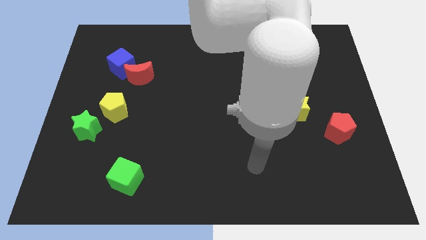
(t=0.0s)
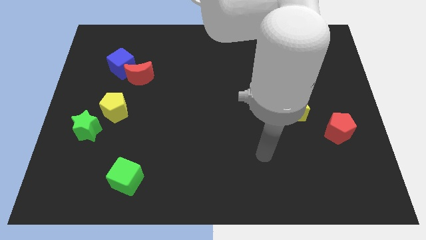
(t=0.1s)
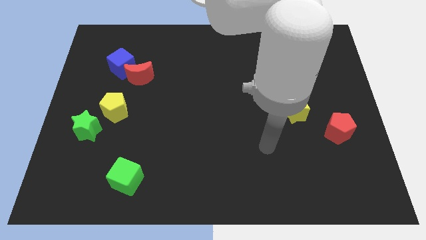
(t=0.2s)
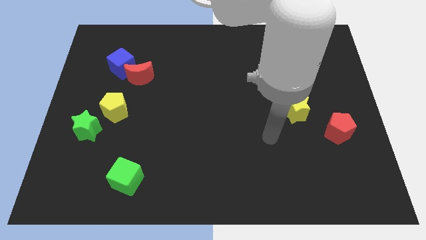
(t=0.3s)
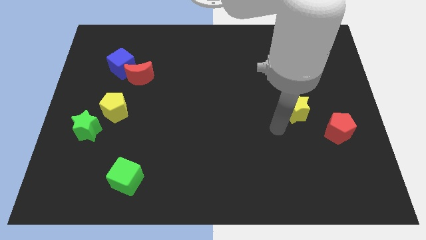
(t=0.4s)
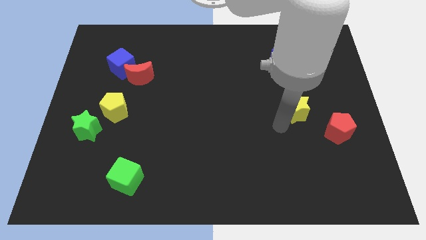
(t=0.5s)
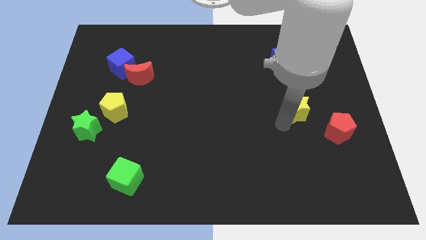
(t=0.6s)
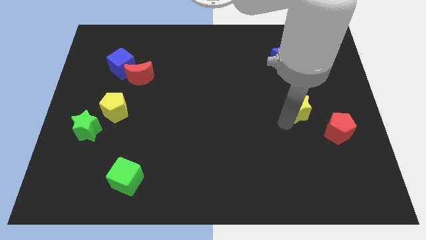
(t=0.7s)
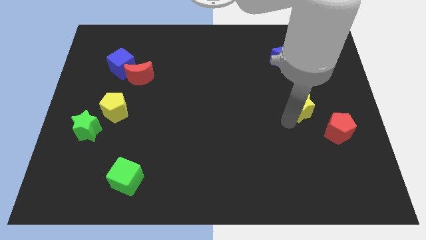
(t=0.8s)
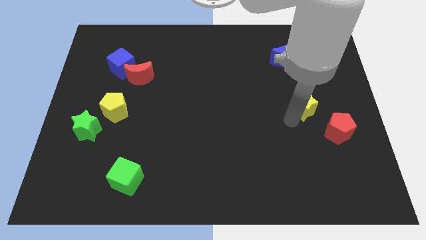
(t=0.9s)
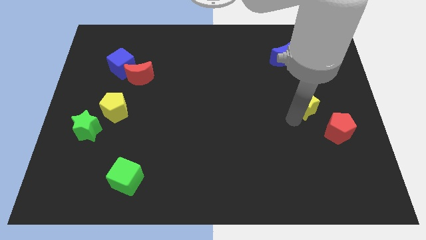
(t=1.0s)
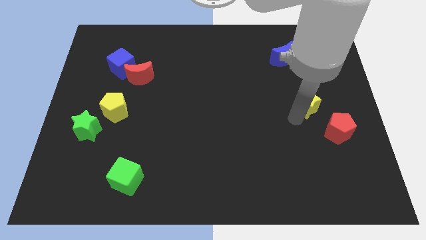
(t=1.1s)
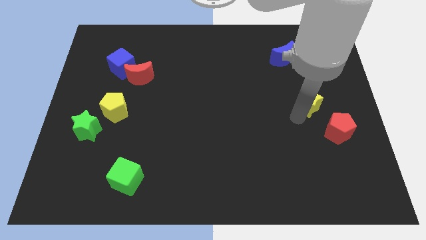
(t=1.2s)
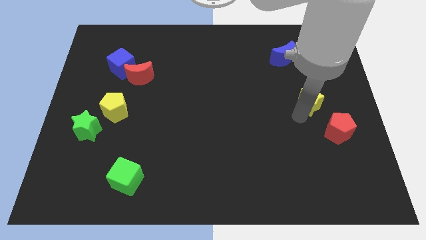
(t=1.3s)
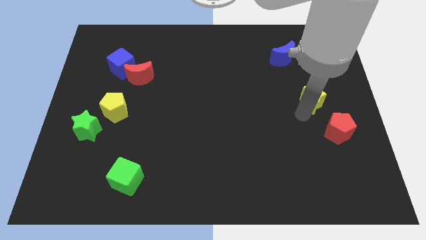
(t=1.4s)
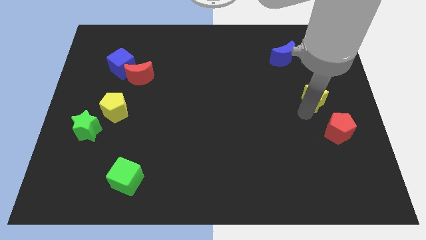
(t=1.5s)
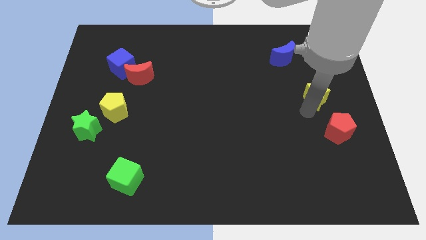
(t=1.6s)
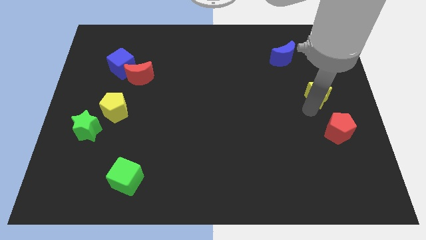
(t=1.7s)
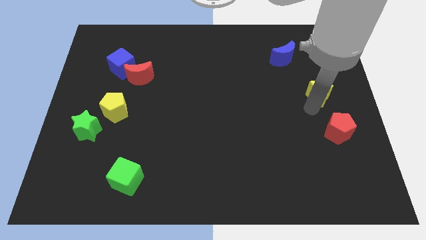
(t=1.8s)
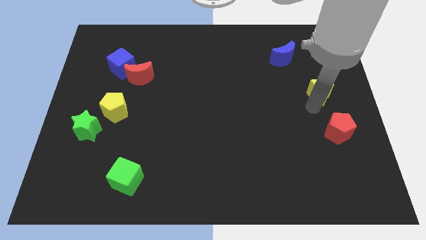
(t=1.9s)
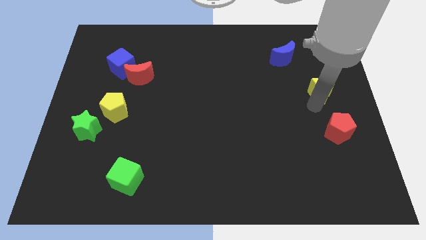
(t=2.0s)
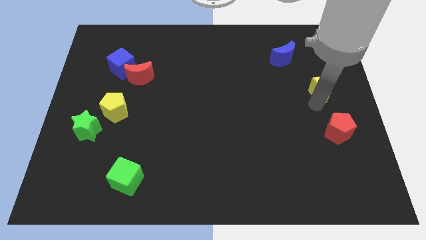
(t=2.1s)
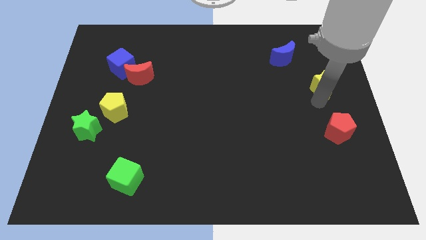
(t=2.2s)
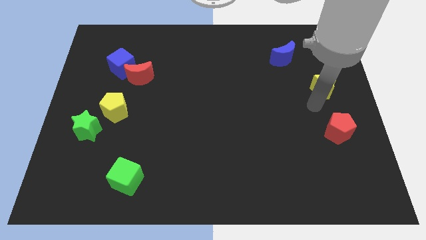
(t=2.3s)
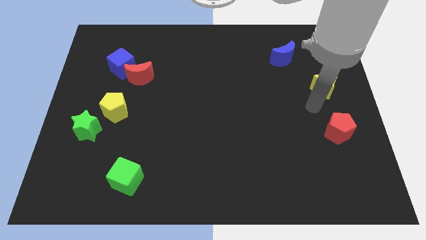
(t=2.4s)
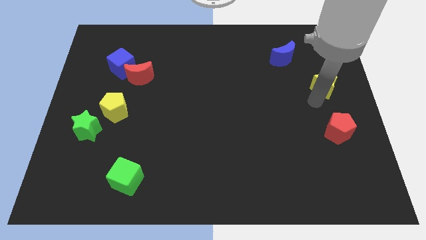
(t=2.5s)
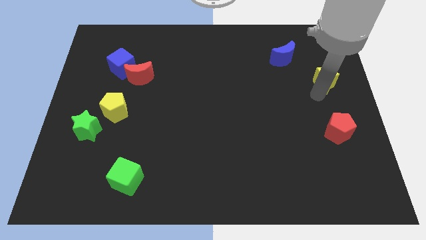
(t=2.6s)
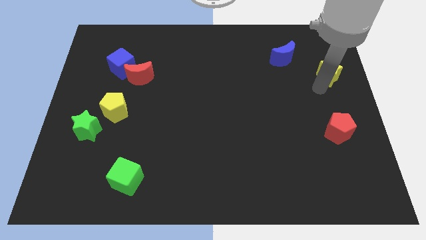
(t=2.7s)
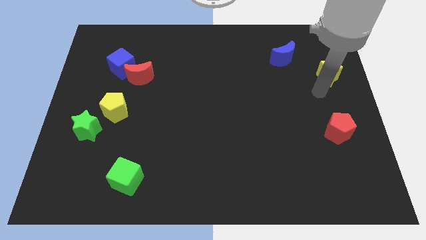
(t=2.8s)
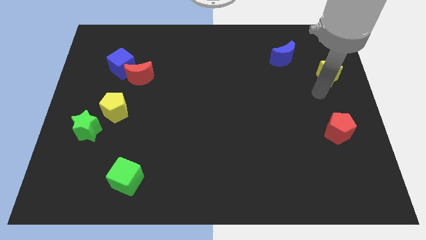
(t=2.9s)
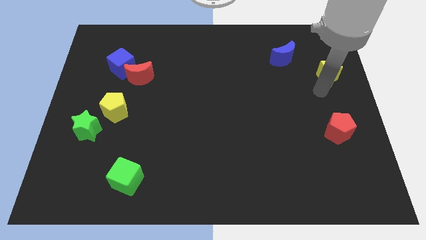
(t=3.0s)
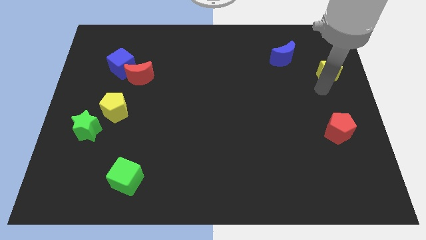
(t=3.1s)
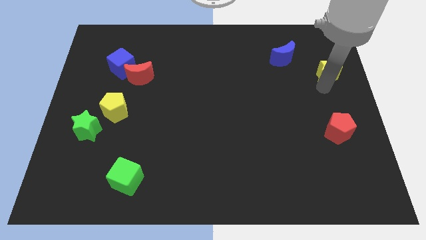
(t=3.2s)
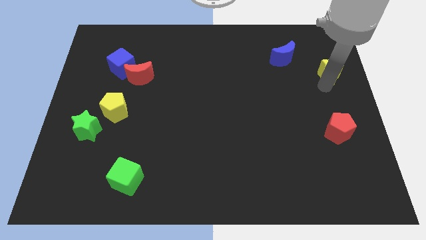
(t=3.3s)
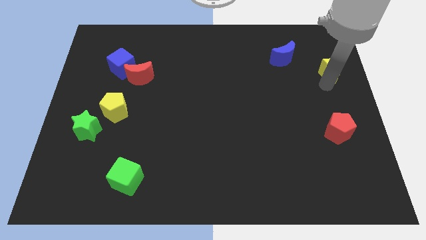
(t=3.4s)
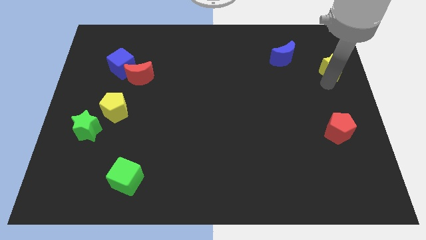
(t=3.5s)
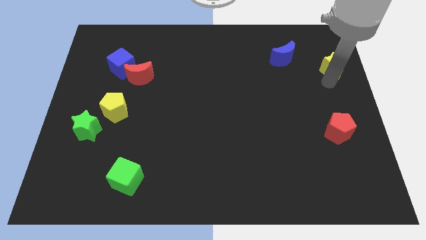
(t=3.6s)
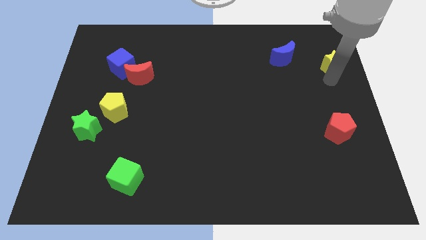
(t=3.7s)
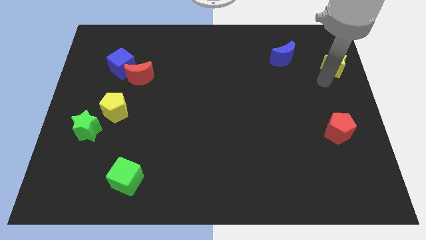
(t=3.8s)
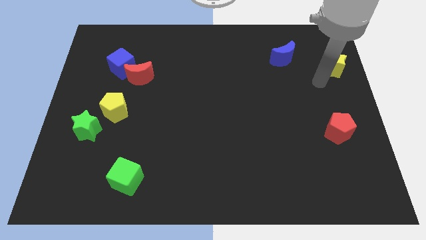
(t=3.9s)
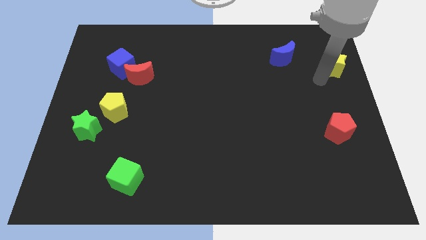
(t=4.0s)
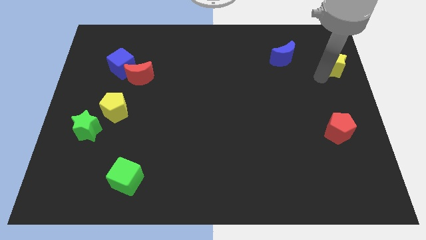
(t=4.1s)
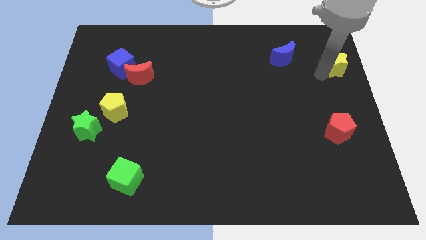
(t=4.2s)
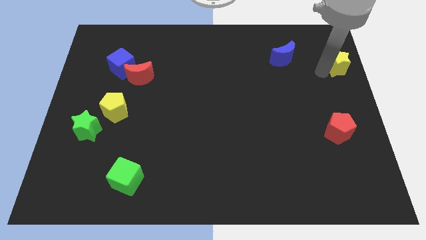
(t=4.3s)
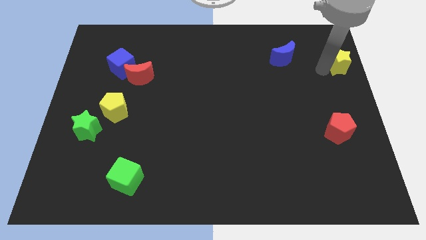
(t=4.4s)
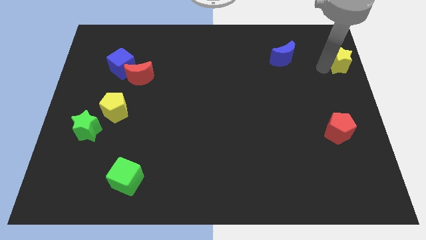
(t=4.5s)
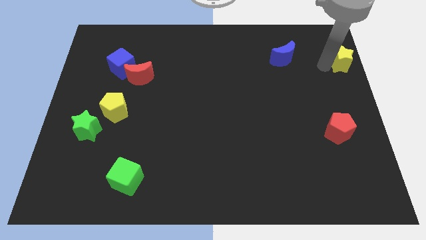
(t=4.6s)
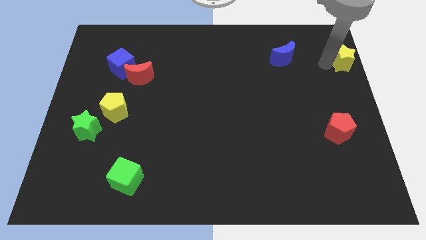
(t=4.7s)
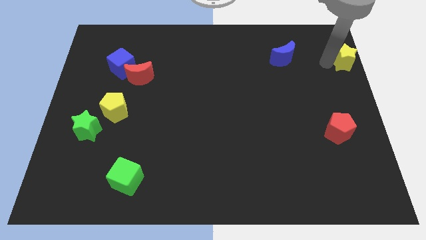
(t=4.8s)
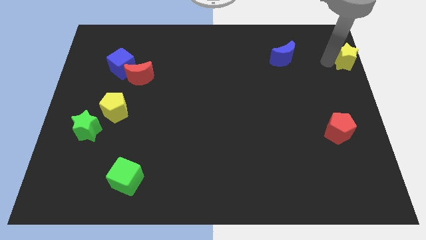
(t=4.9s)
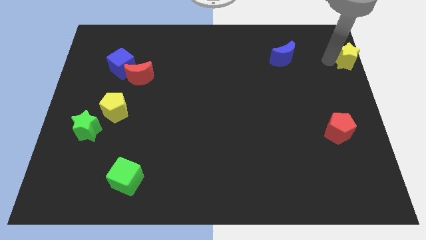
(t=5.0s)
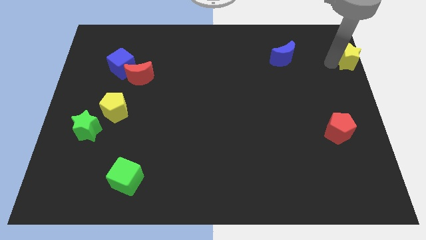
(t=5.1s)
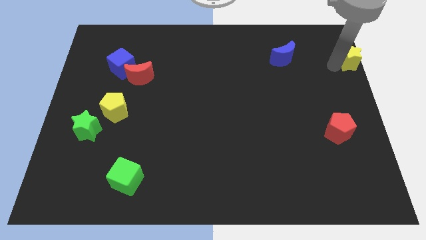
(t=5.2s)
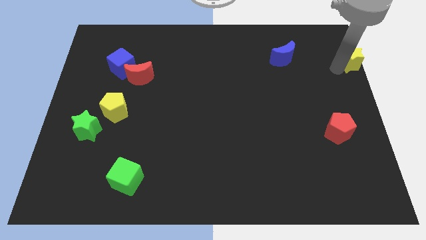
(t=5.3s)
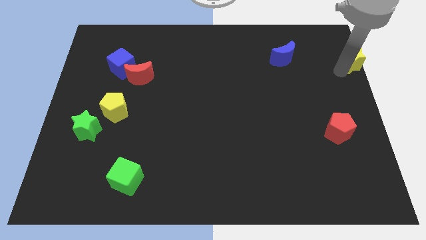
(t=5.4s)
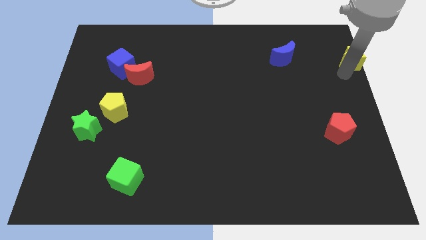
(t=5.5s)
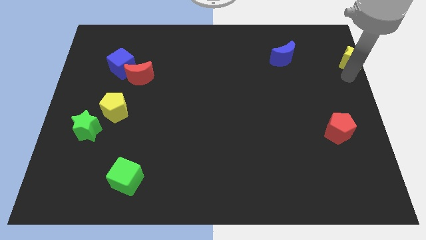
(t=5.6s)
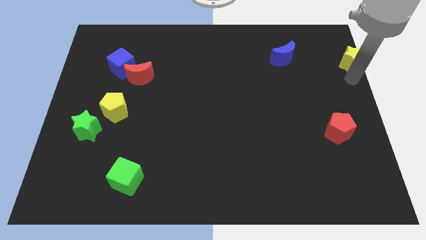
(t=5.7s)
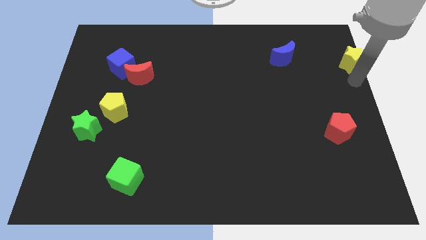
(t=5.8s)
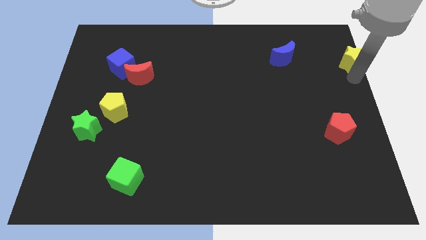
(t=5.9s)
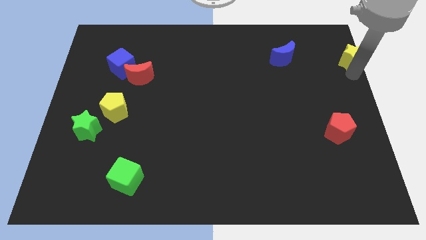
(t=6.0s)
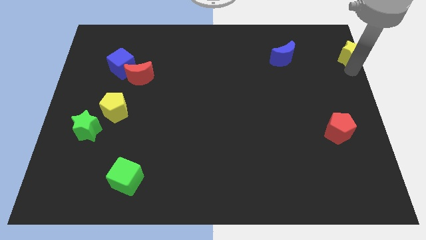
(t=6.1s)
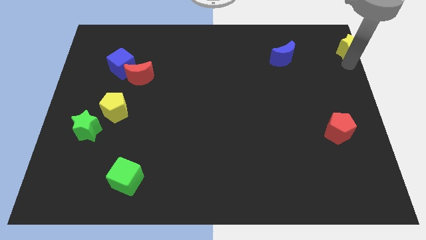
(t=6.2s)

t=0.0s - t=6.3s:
push the yellow star to the top right of the board
